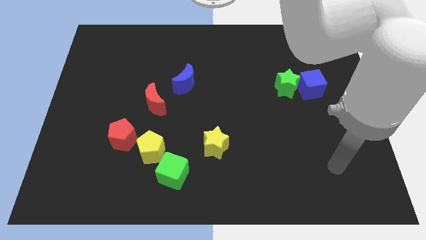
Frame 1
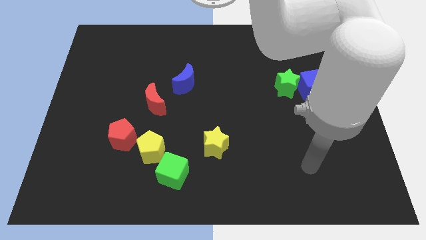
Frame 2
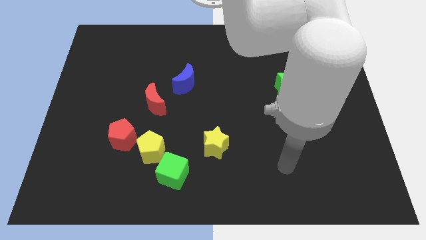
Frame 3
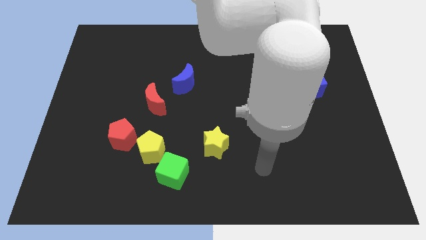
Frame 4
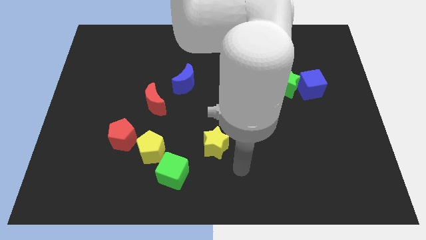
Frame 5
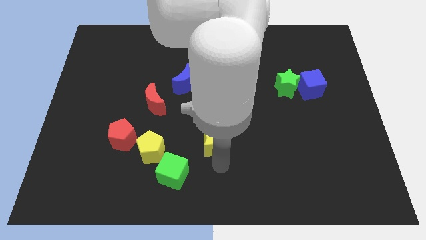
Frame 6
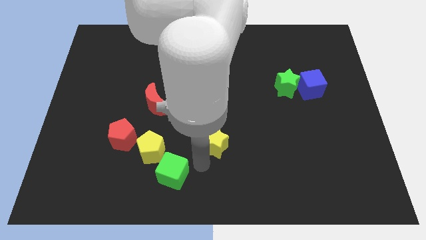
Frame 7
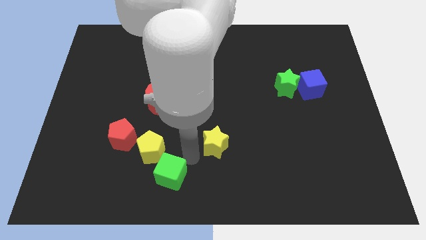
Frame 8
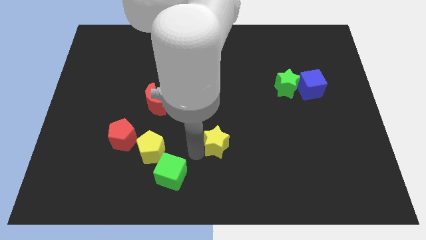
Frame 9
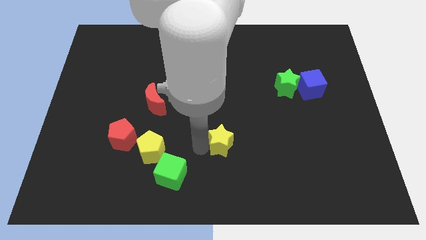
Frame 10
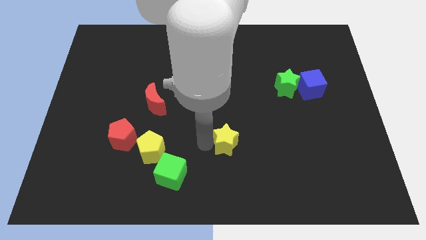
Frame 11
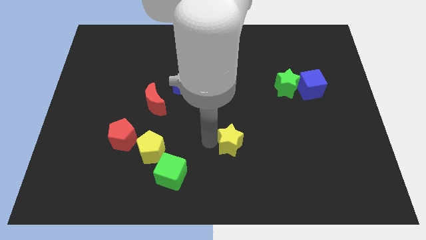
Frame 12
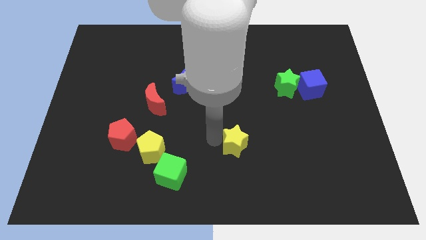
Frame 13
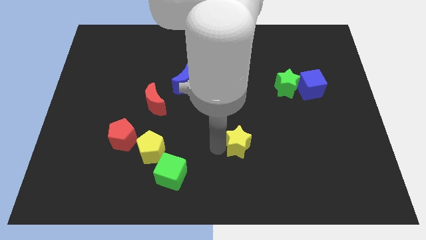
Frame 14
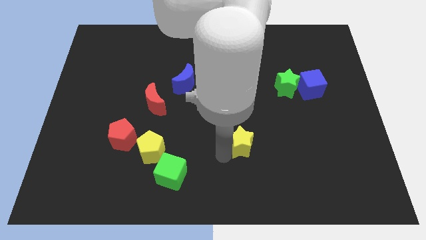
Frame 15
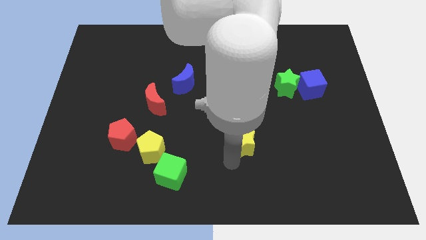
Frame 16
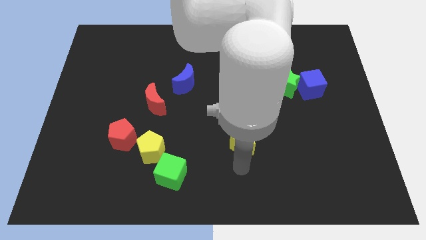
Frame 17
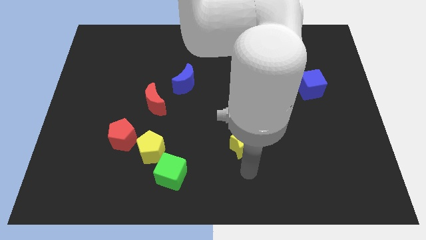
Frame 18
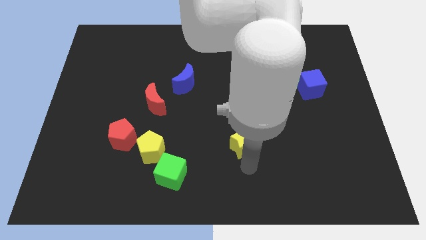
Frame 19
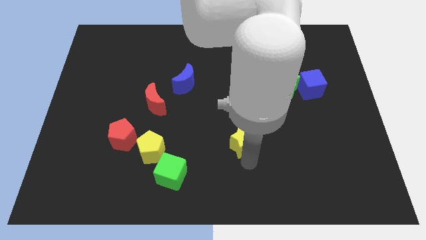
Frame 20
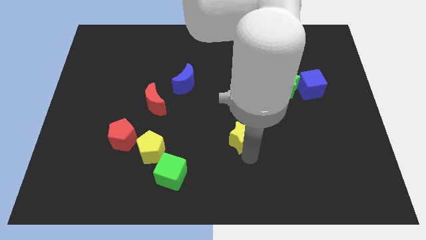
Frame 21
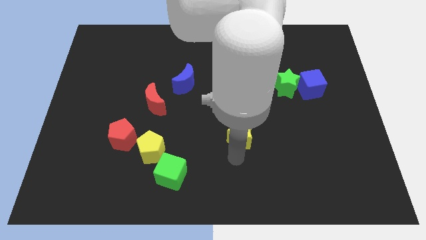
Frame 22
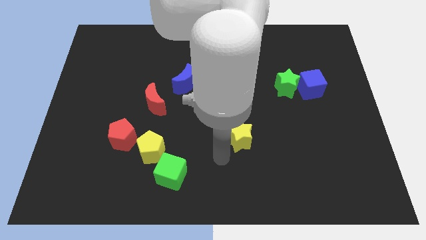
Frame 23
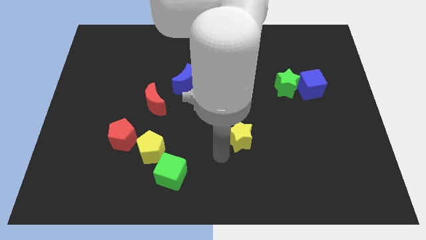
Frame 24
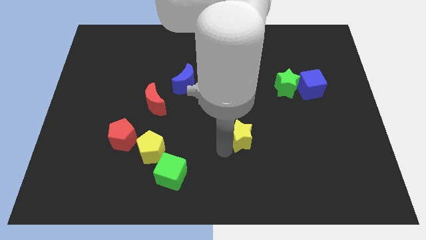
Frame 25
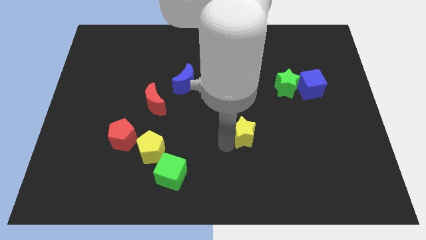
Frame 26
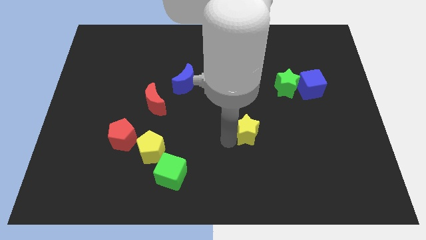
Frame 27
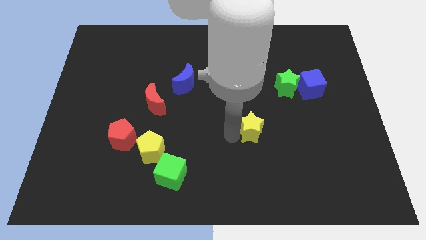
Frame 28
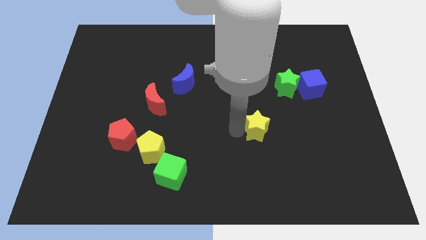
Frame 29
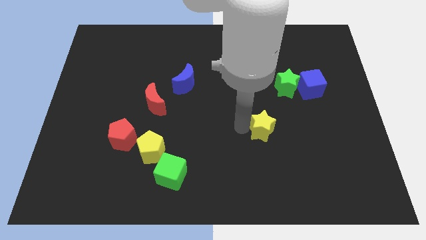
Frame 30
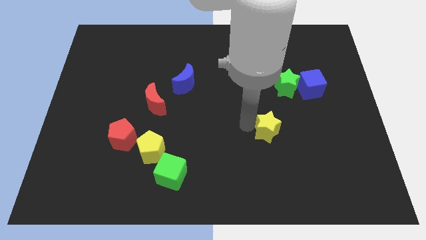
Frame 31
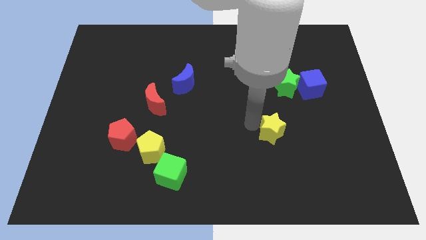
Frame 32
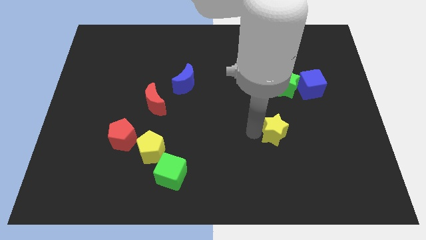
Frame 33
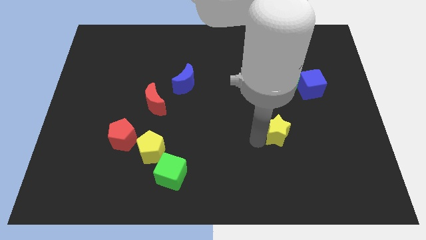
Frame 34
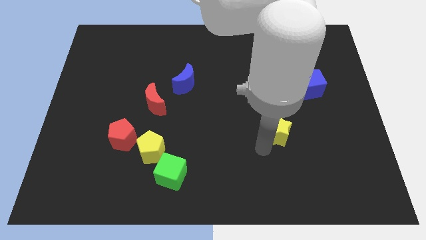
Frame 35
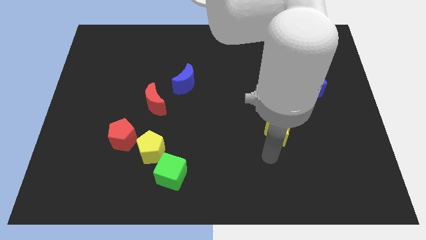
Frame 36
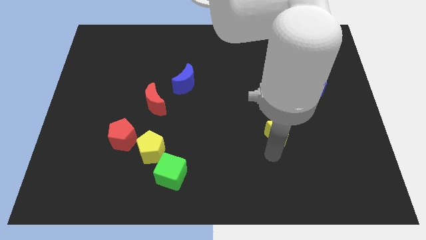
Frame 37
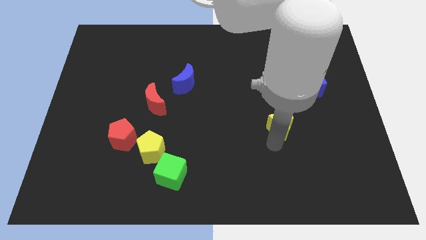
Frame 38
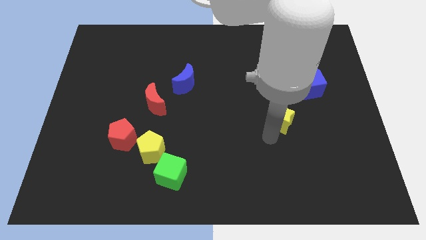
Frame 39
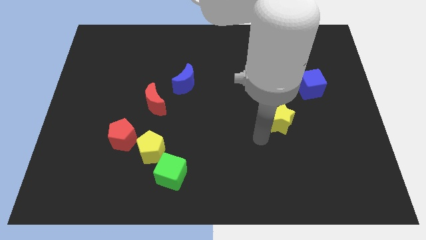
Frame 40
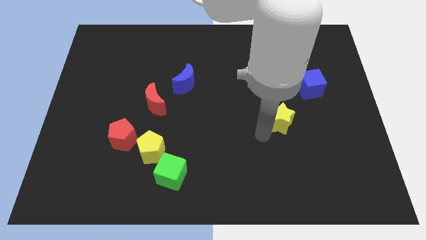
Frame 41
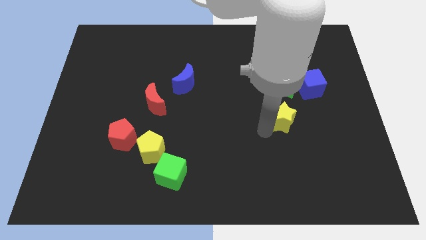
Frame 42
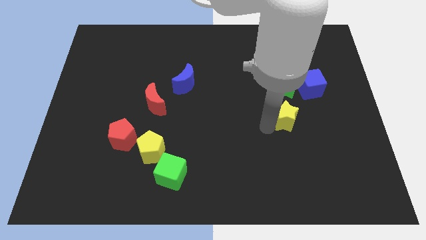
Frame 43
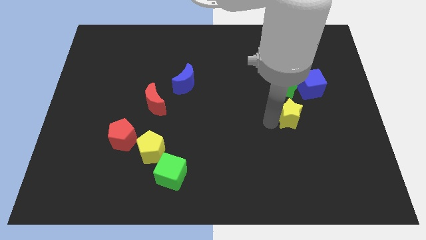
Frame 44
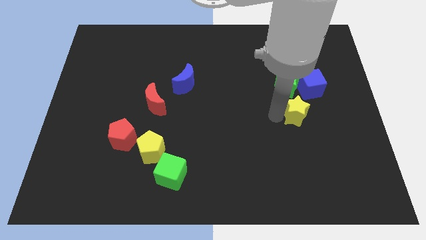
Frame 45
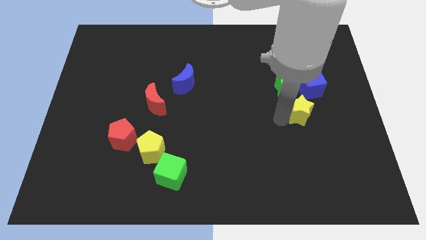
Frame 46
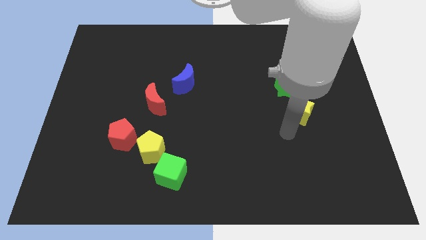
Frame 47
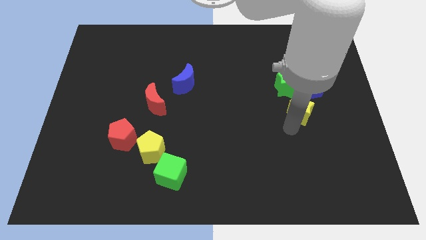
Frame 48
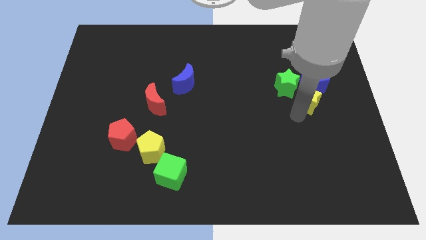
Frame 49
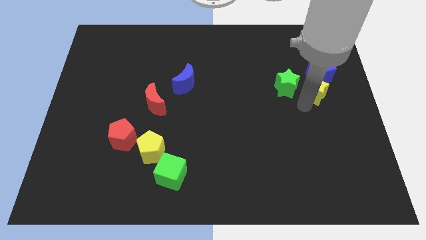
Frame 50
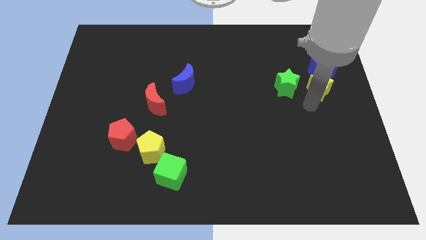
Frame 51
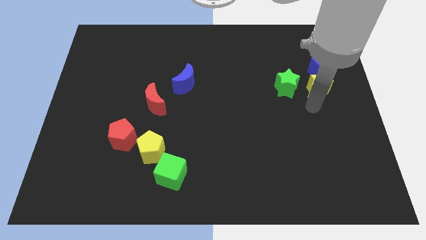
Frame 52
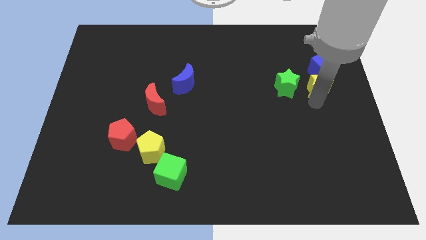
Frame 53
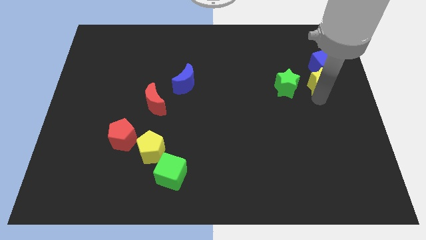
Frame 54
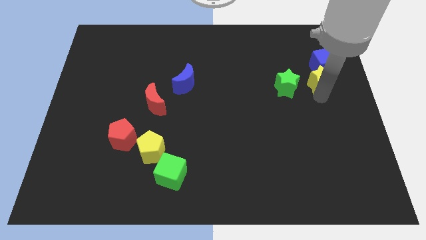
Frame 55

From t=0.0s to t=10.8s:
move the yellow star to the blue cube

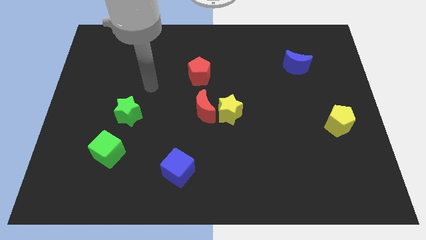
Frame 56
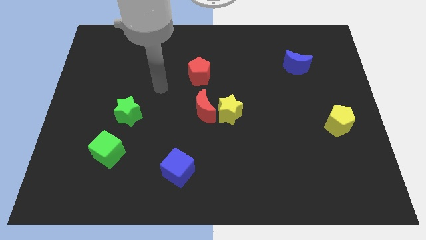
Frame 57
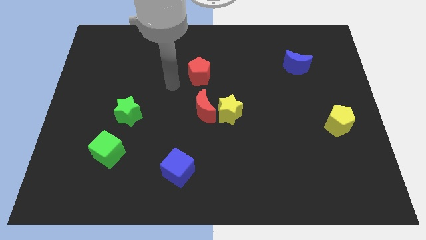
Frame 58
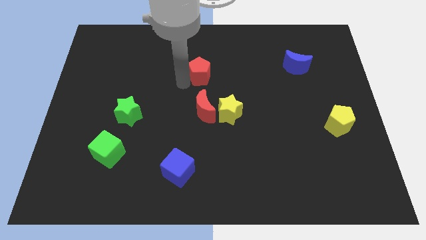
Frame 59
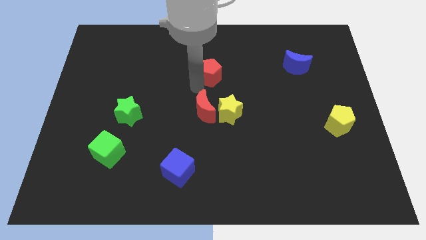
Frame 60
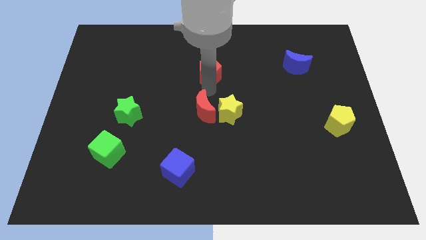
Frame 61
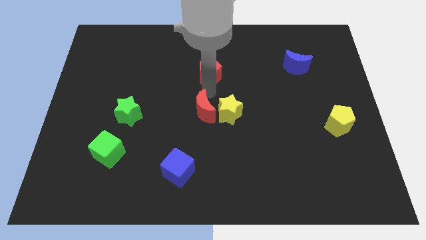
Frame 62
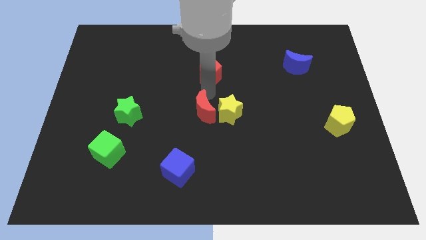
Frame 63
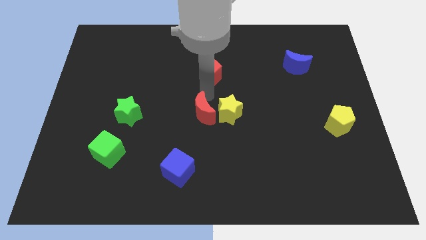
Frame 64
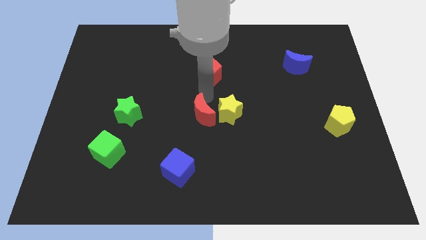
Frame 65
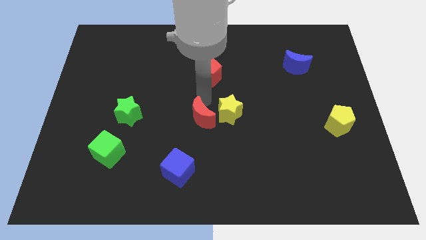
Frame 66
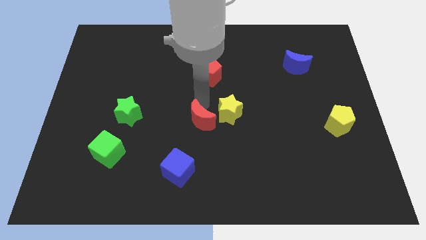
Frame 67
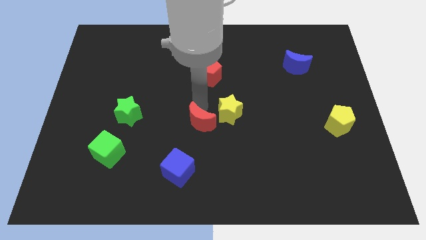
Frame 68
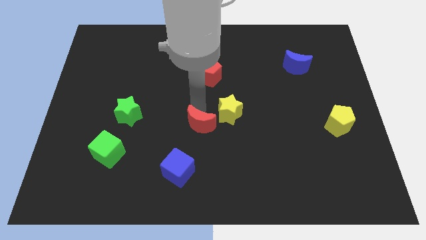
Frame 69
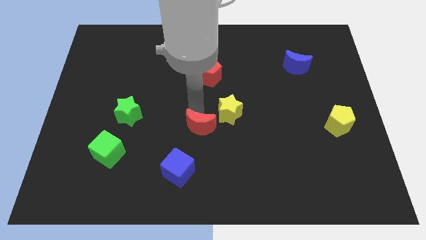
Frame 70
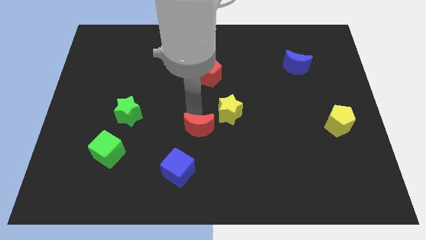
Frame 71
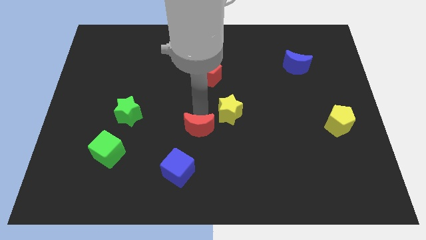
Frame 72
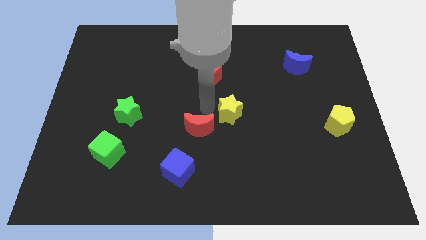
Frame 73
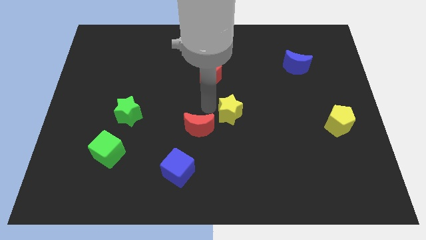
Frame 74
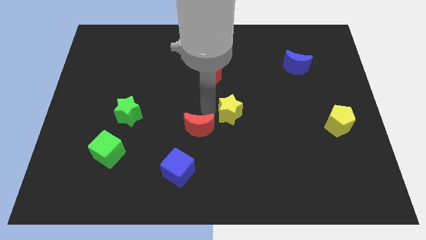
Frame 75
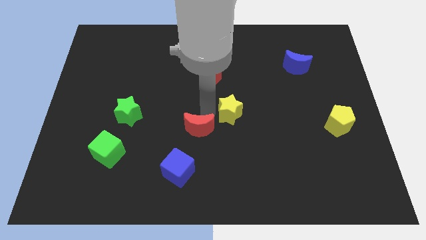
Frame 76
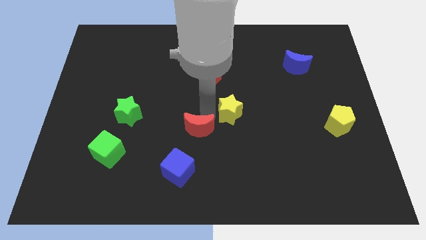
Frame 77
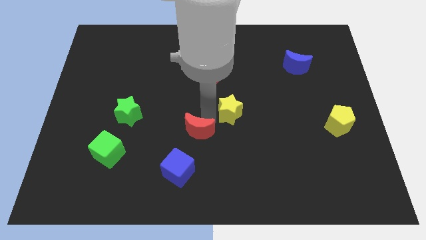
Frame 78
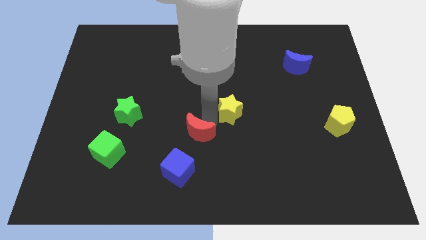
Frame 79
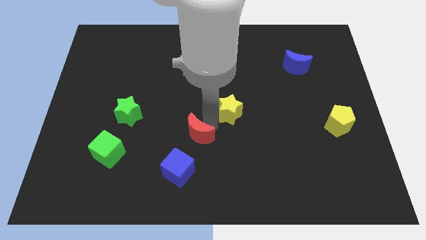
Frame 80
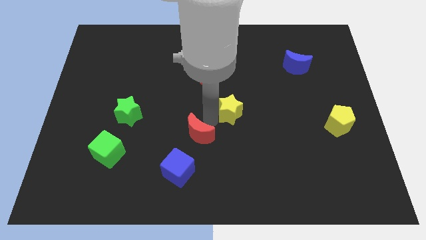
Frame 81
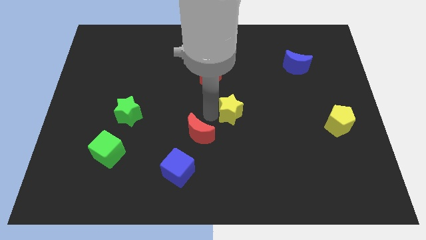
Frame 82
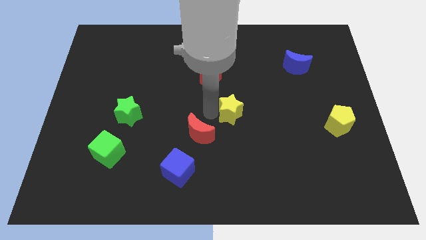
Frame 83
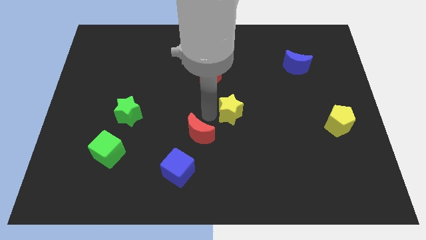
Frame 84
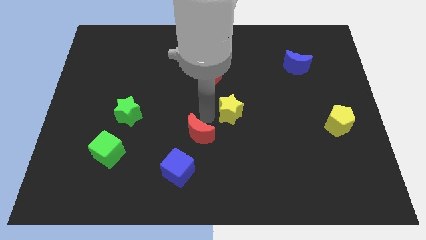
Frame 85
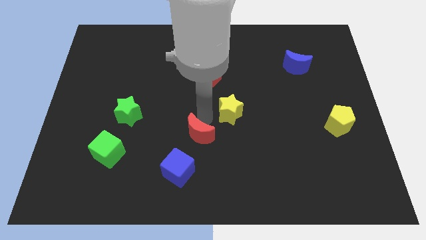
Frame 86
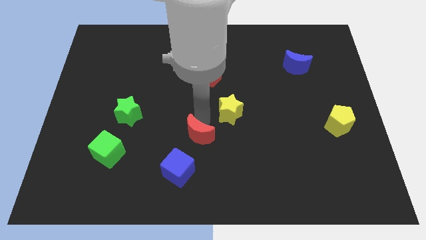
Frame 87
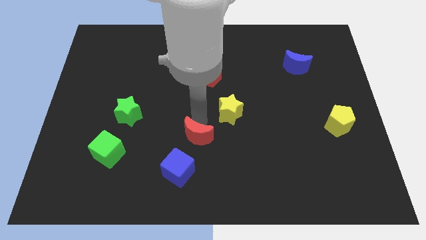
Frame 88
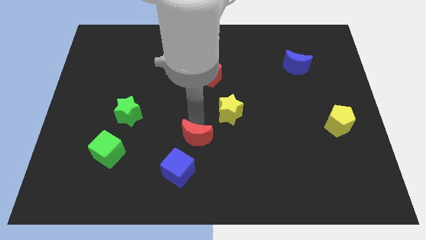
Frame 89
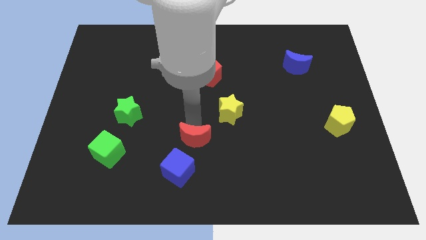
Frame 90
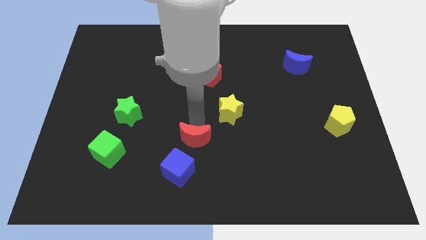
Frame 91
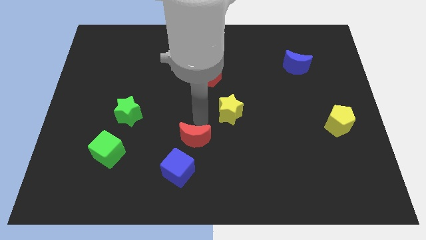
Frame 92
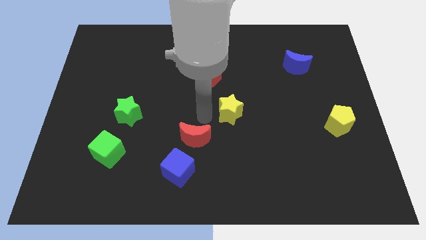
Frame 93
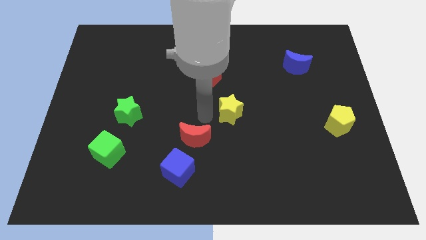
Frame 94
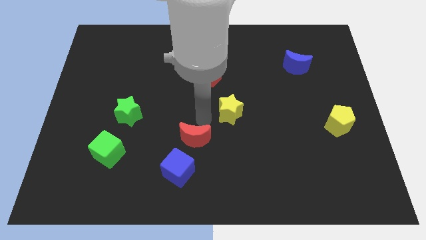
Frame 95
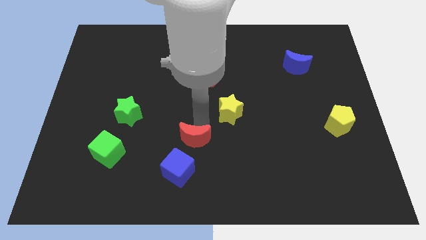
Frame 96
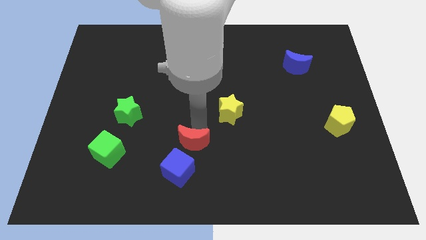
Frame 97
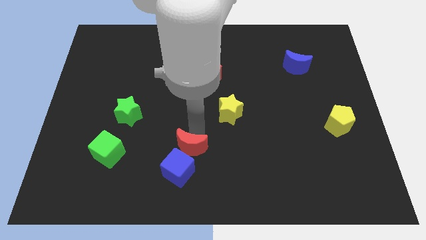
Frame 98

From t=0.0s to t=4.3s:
slide the red moon next to the blue cube
